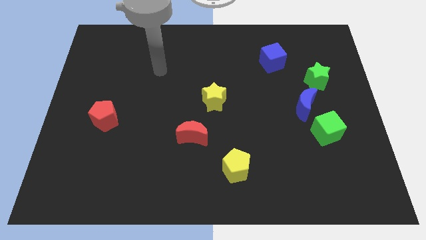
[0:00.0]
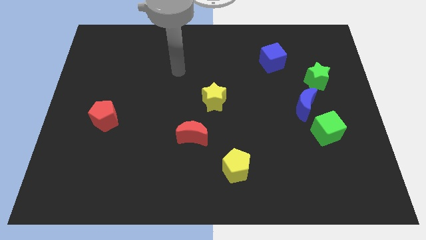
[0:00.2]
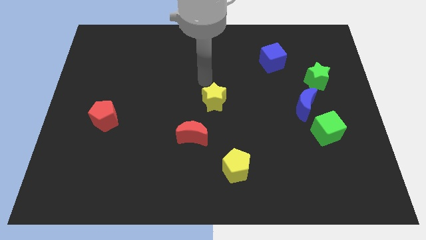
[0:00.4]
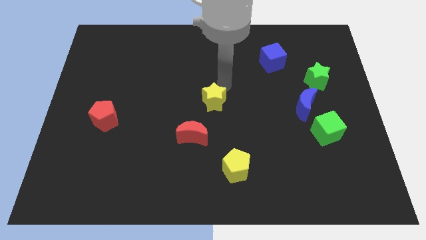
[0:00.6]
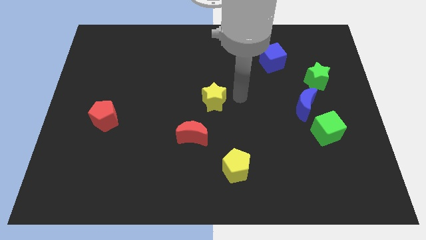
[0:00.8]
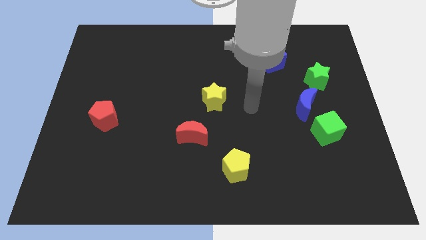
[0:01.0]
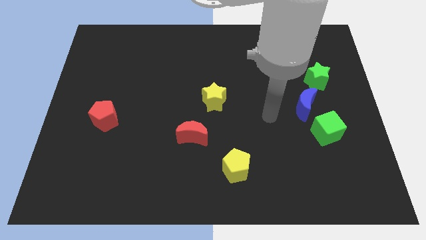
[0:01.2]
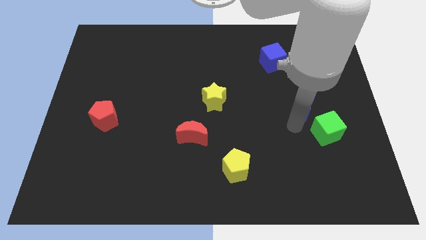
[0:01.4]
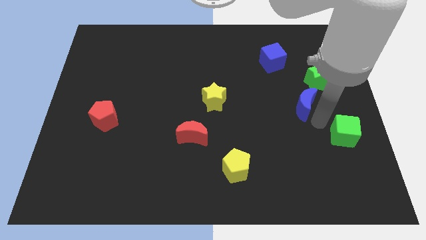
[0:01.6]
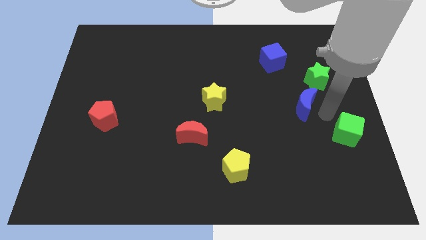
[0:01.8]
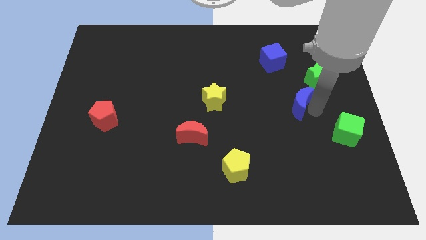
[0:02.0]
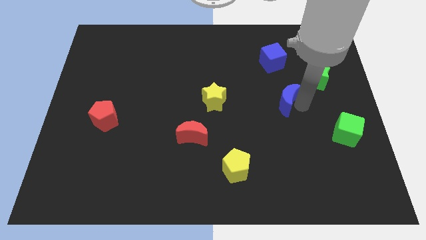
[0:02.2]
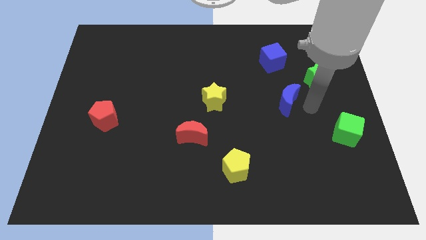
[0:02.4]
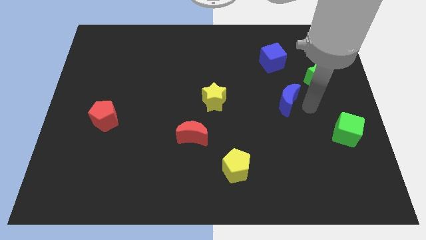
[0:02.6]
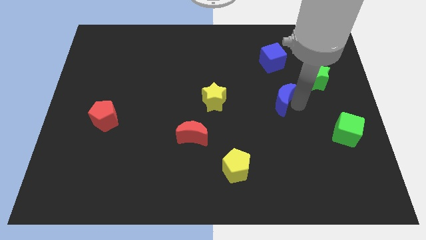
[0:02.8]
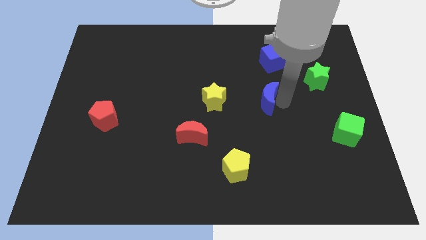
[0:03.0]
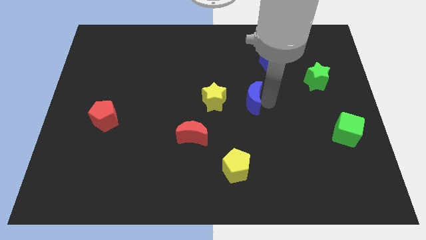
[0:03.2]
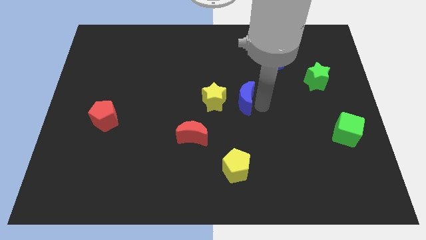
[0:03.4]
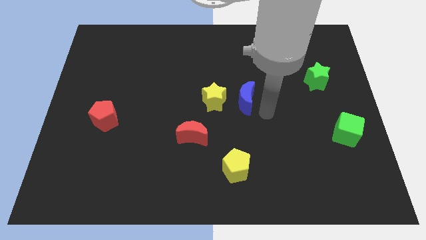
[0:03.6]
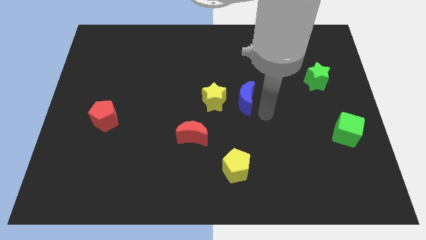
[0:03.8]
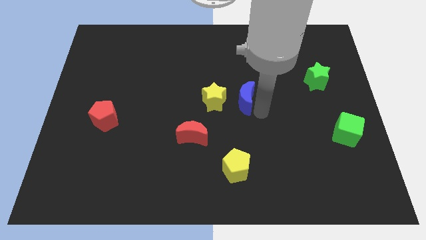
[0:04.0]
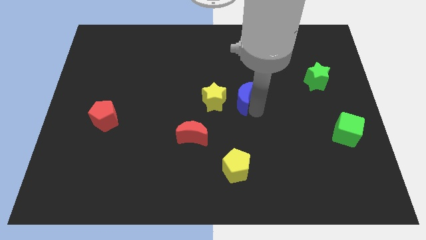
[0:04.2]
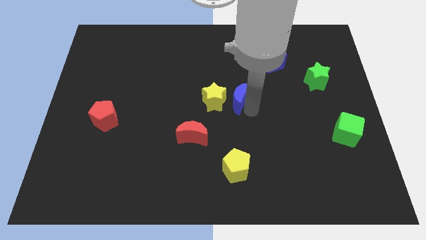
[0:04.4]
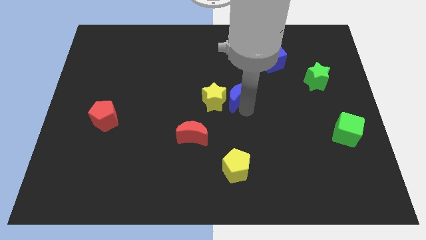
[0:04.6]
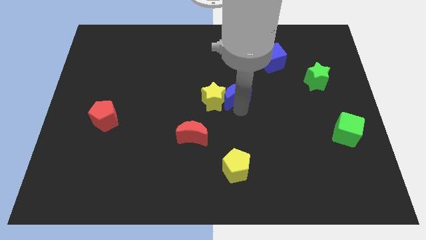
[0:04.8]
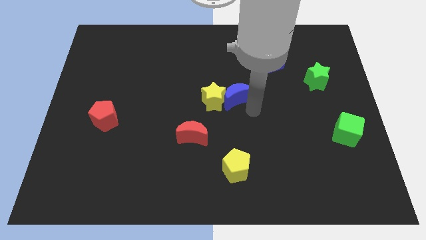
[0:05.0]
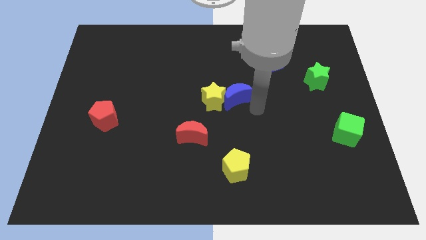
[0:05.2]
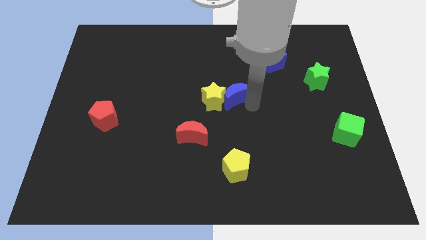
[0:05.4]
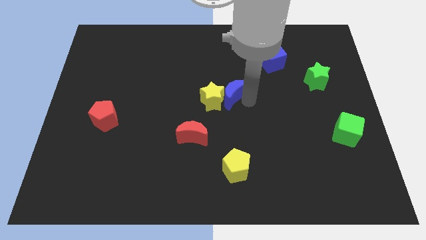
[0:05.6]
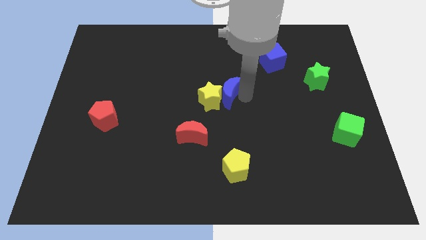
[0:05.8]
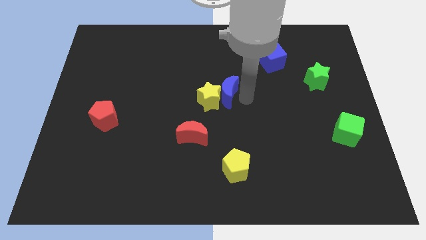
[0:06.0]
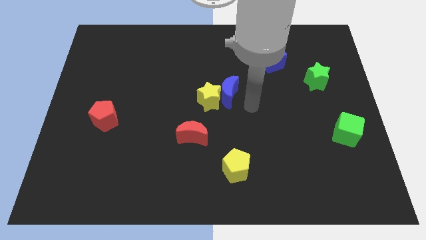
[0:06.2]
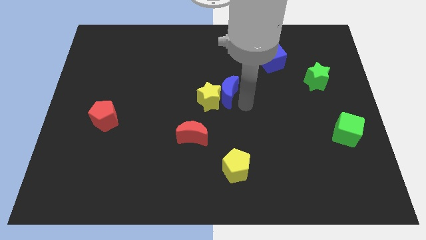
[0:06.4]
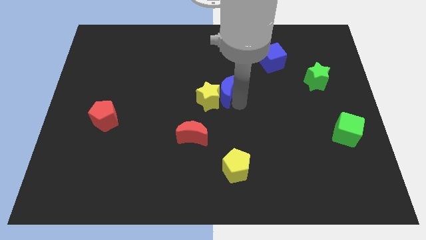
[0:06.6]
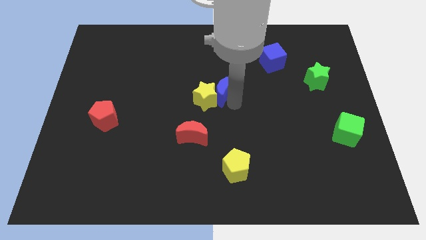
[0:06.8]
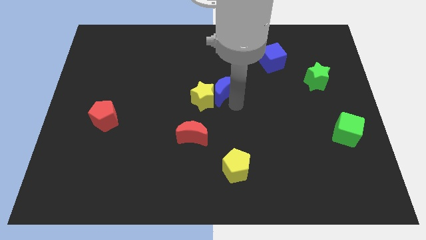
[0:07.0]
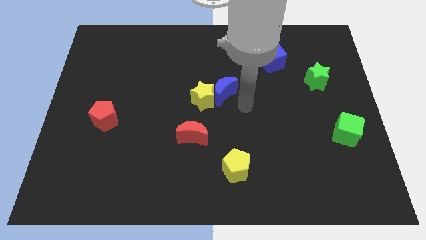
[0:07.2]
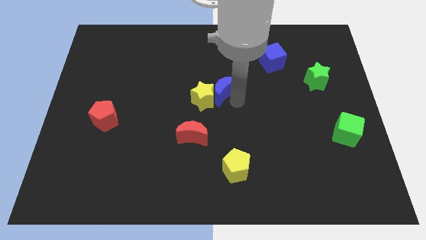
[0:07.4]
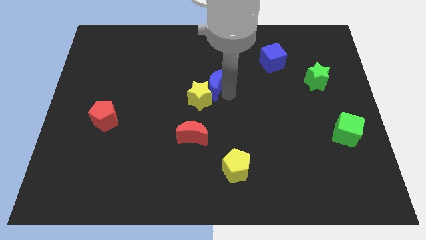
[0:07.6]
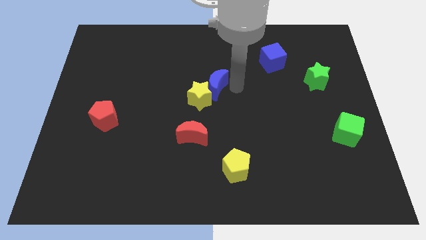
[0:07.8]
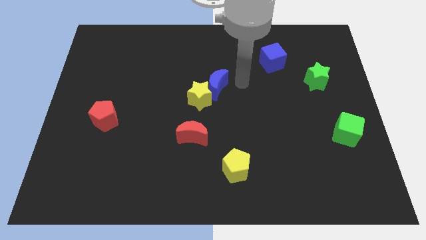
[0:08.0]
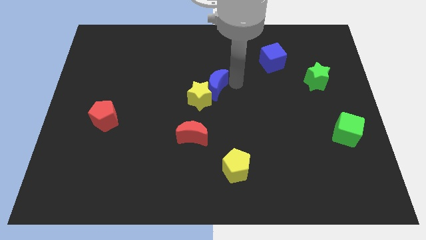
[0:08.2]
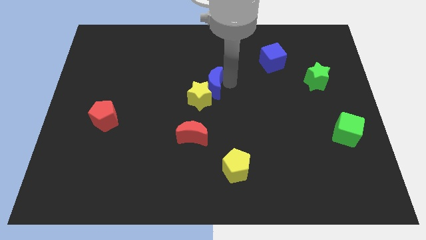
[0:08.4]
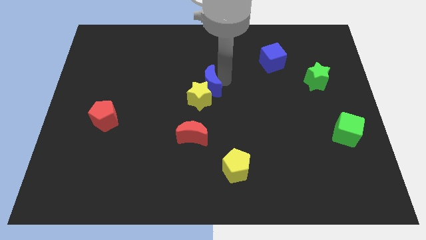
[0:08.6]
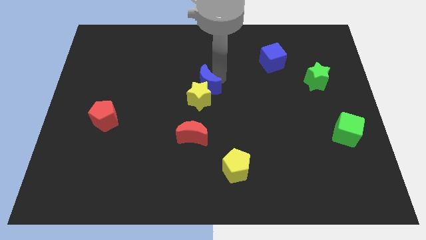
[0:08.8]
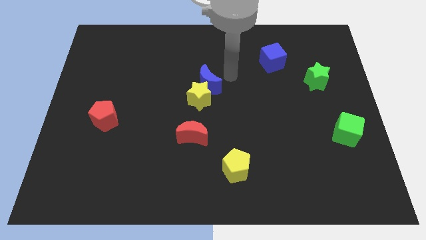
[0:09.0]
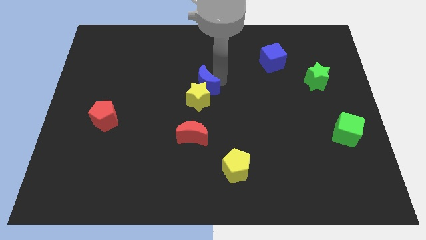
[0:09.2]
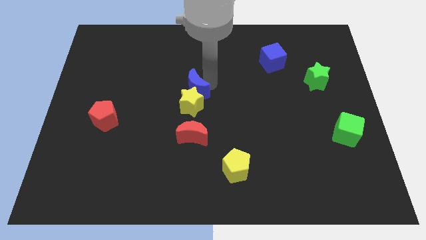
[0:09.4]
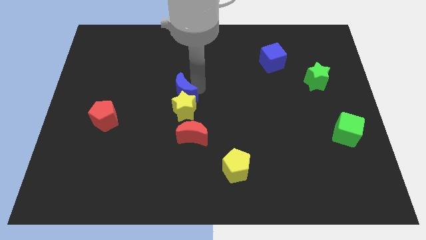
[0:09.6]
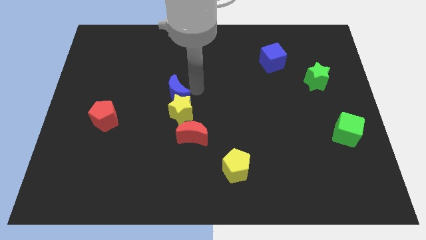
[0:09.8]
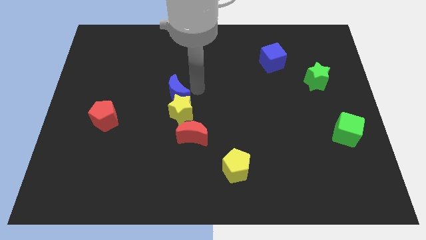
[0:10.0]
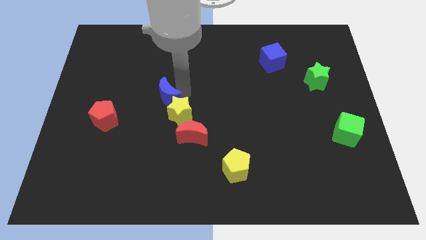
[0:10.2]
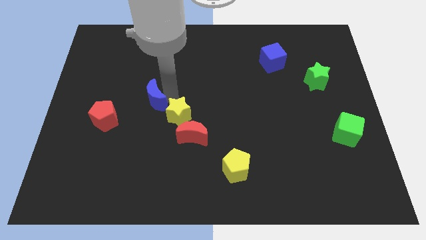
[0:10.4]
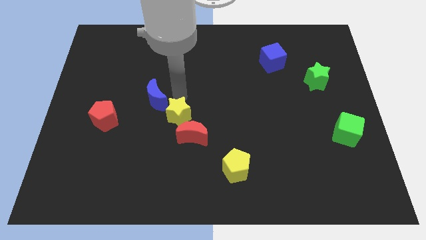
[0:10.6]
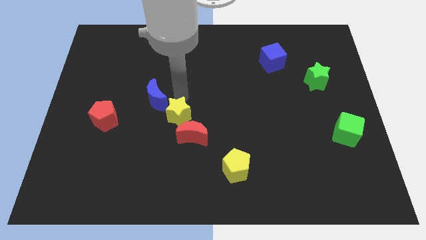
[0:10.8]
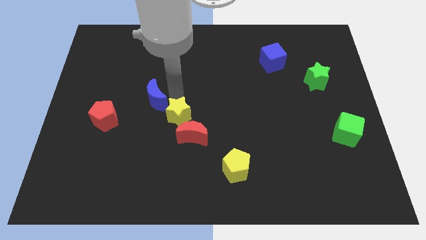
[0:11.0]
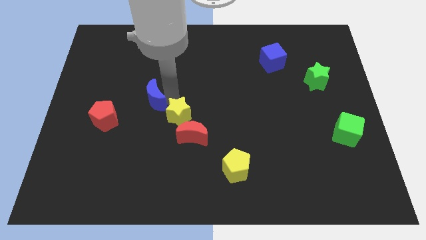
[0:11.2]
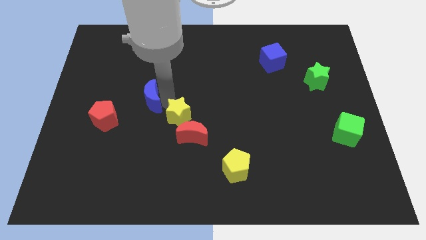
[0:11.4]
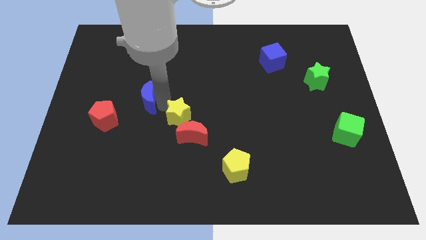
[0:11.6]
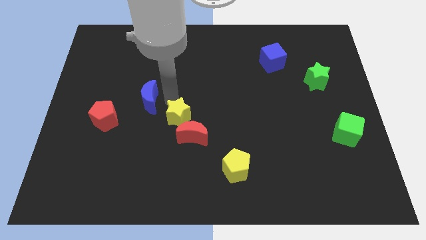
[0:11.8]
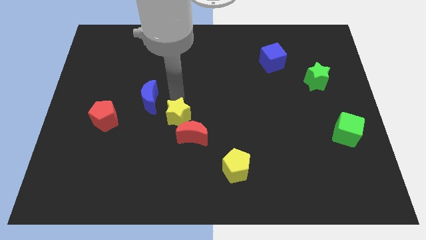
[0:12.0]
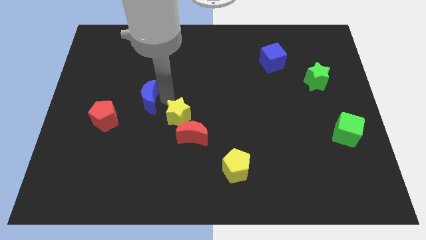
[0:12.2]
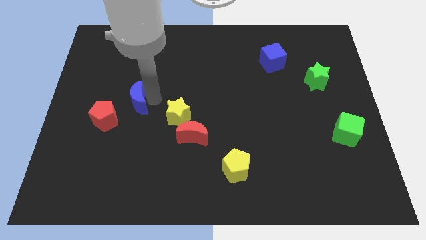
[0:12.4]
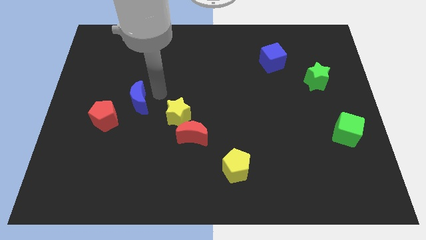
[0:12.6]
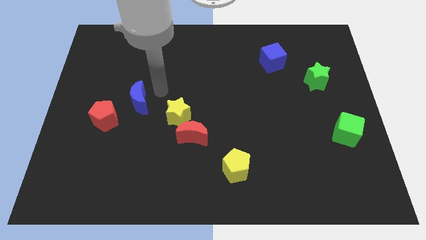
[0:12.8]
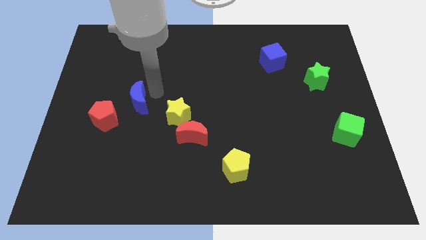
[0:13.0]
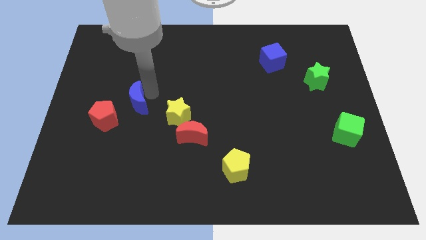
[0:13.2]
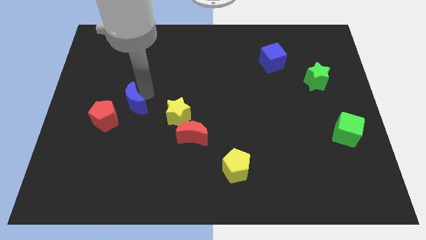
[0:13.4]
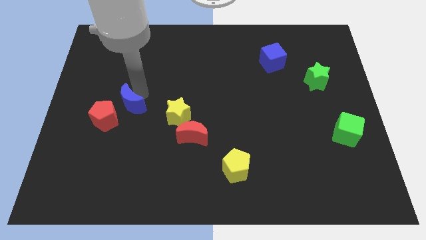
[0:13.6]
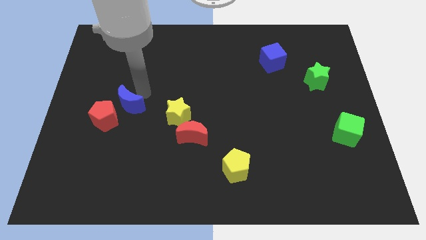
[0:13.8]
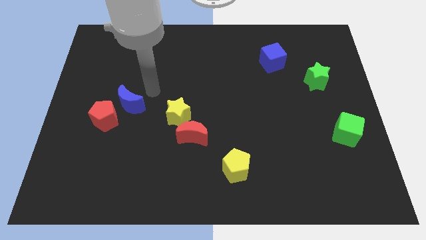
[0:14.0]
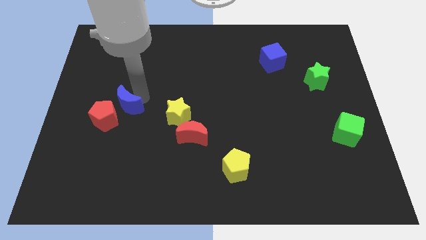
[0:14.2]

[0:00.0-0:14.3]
push the blue moon towards the red pentagon
